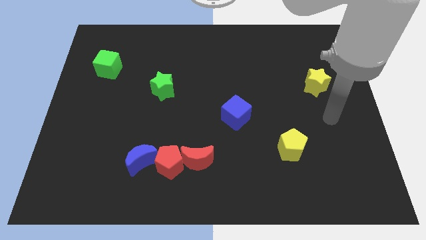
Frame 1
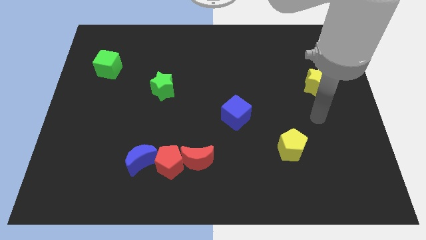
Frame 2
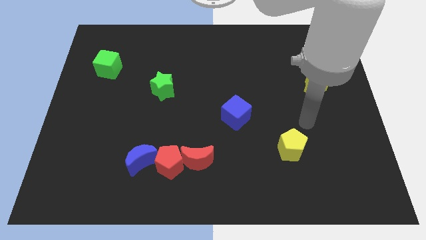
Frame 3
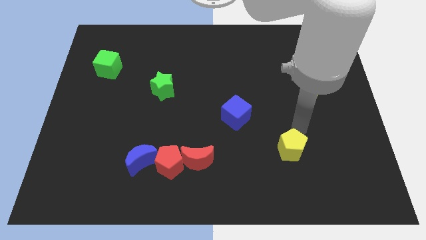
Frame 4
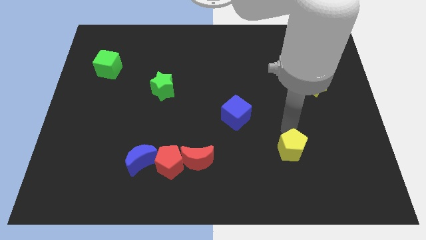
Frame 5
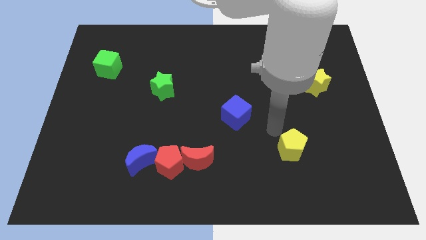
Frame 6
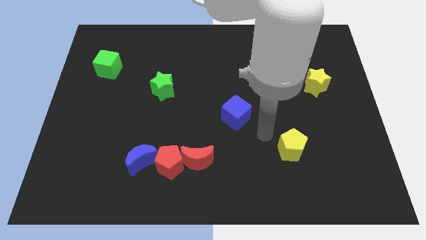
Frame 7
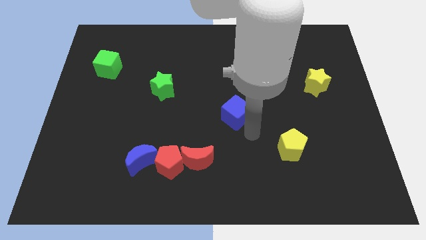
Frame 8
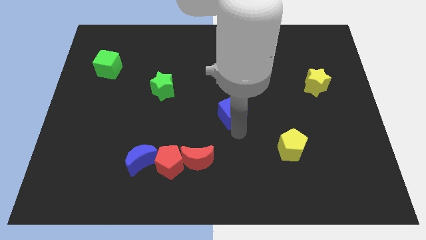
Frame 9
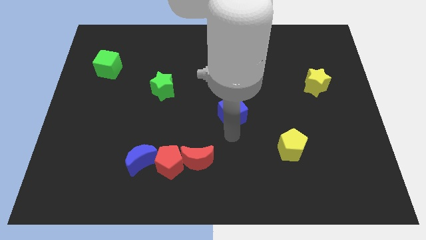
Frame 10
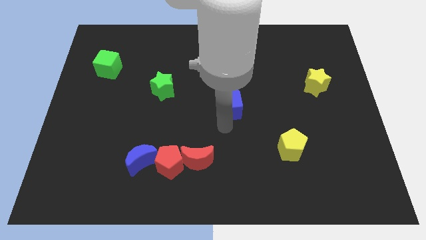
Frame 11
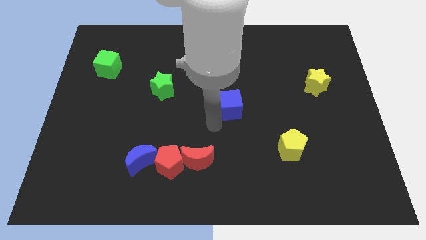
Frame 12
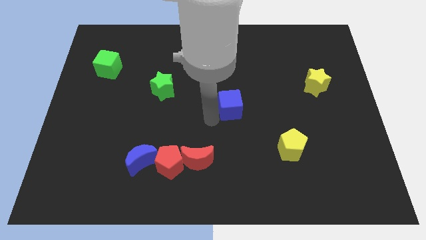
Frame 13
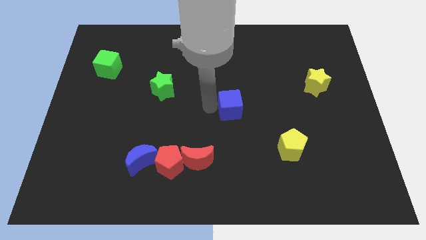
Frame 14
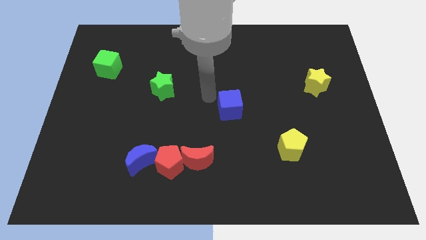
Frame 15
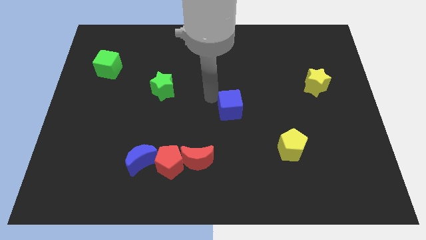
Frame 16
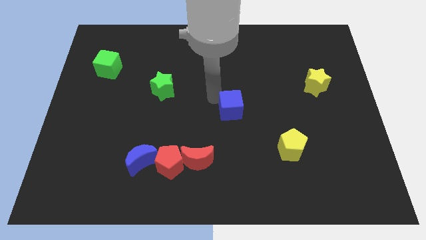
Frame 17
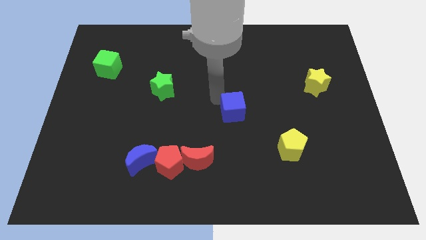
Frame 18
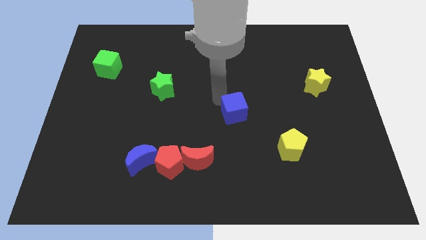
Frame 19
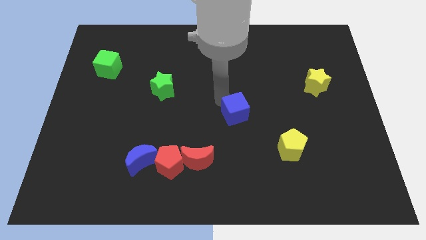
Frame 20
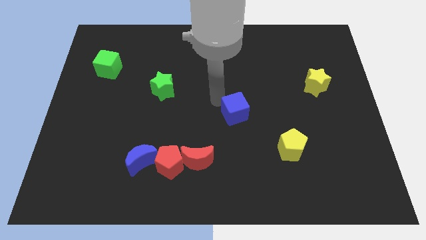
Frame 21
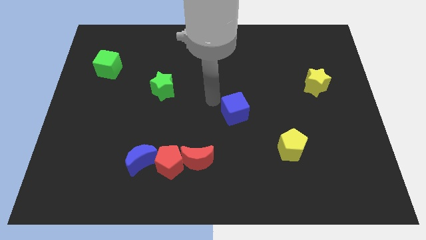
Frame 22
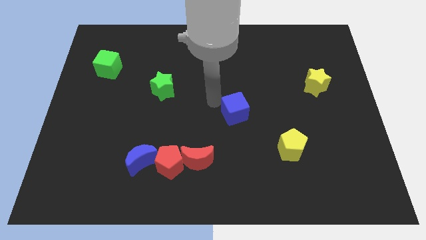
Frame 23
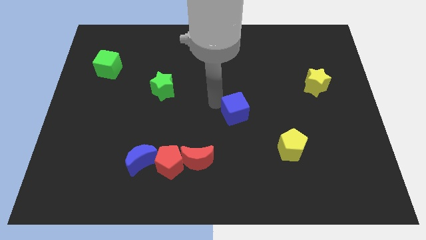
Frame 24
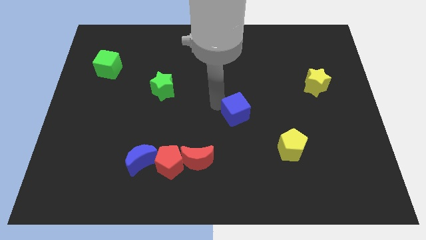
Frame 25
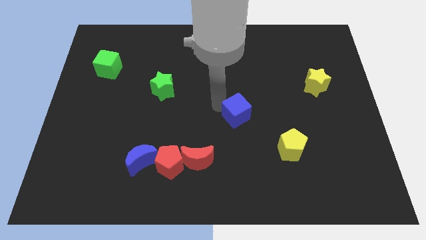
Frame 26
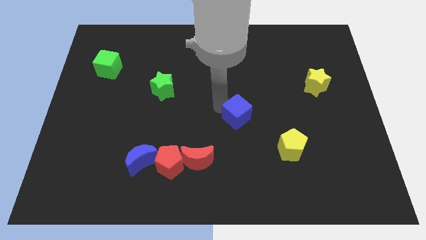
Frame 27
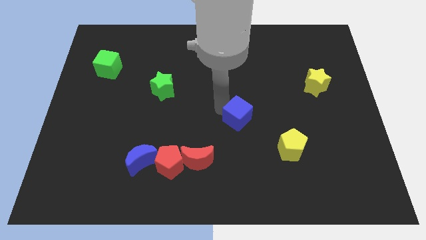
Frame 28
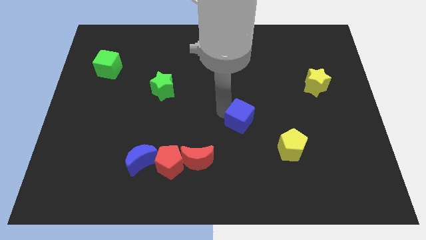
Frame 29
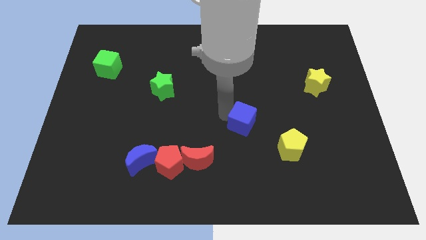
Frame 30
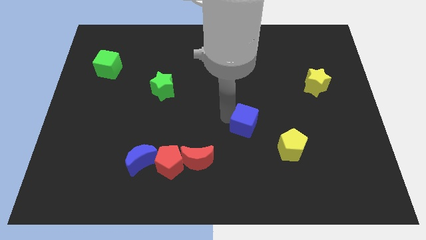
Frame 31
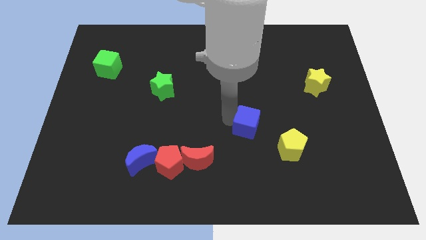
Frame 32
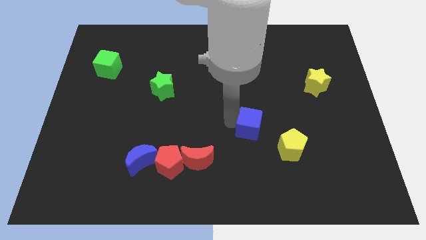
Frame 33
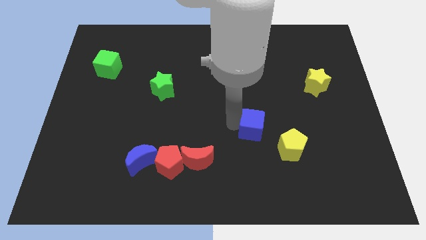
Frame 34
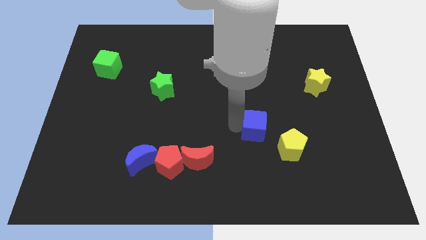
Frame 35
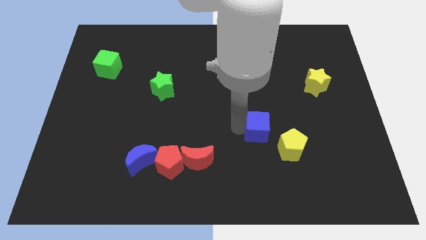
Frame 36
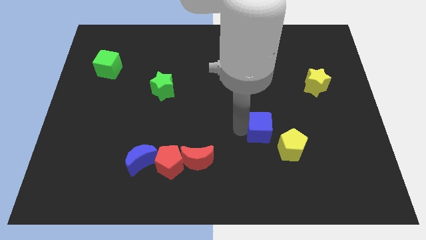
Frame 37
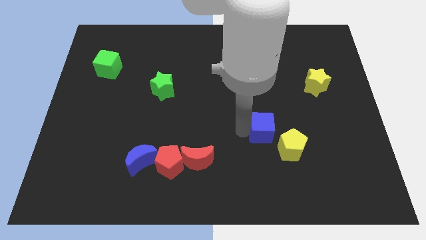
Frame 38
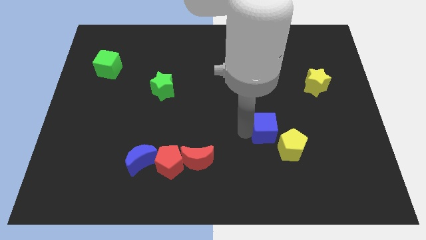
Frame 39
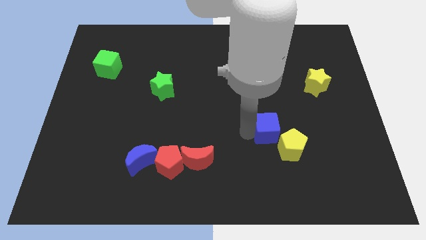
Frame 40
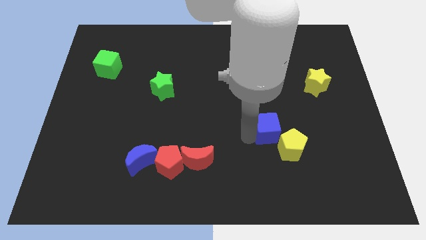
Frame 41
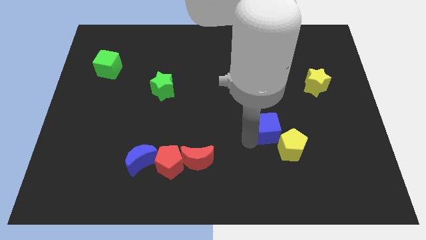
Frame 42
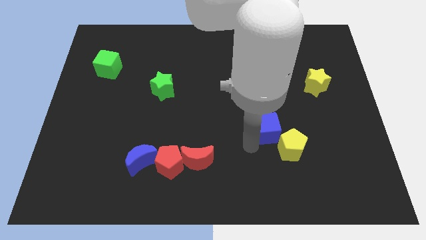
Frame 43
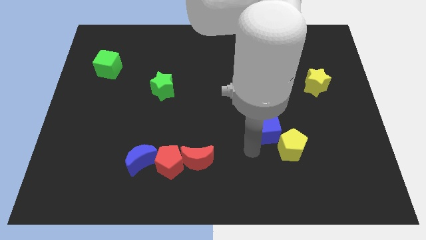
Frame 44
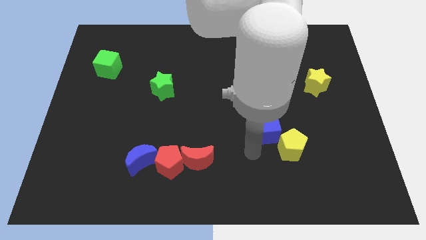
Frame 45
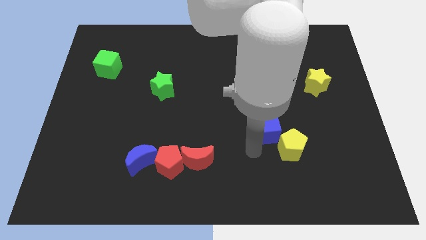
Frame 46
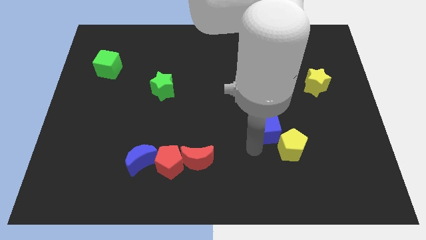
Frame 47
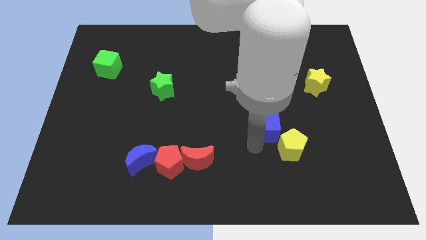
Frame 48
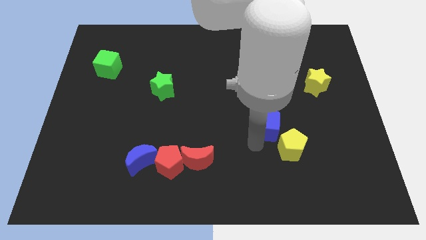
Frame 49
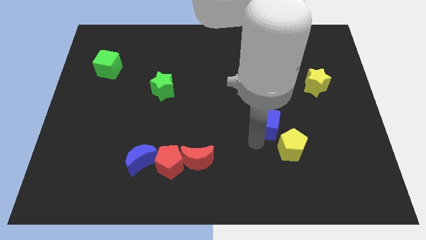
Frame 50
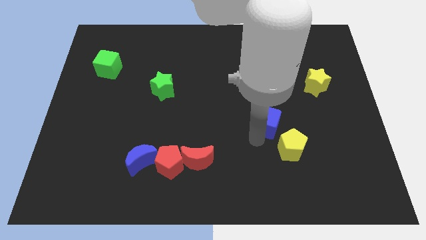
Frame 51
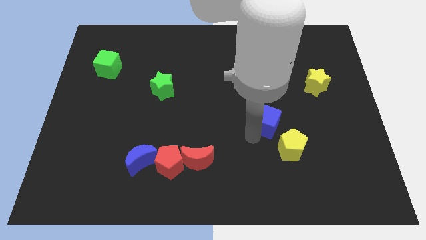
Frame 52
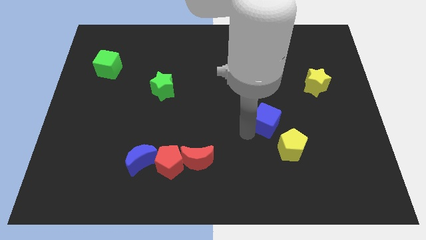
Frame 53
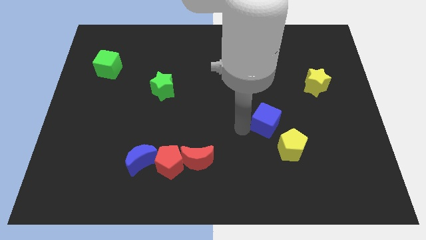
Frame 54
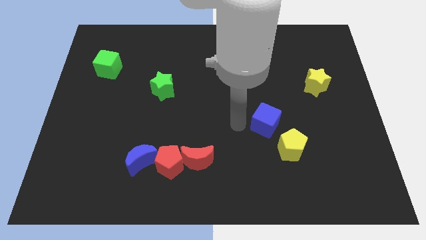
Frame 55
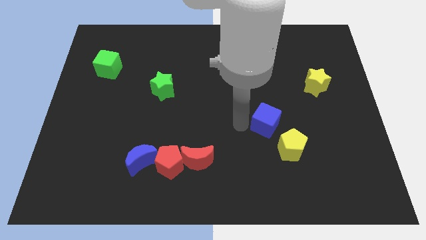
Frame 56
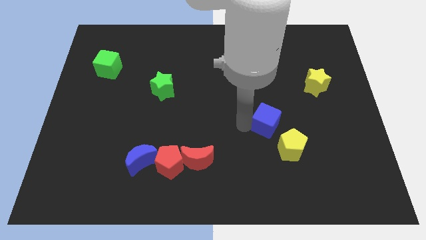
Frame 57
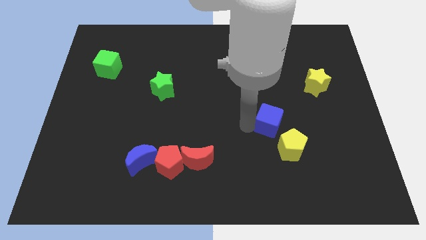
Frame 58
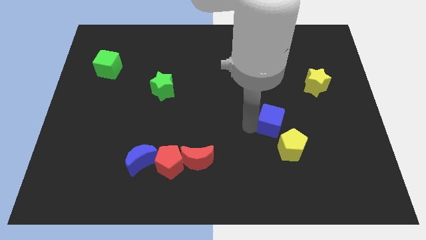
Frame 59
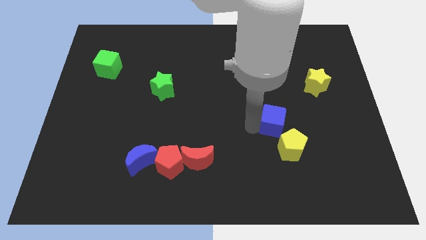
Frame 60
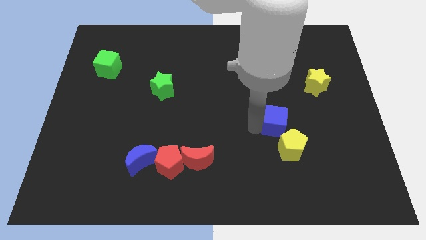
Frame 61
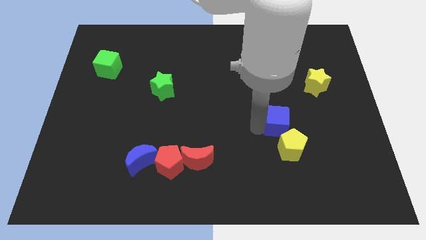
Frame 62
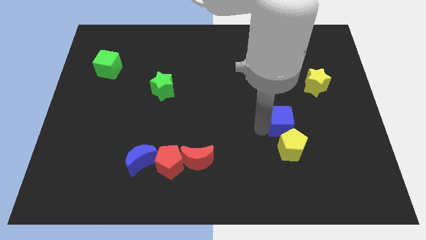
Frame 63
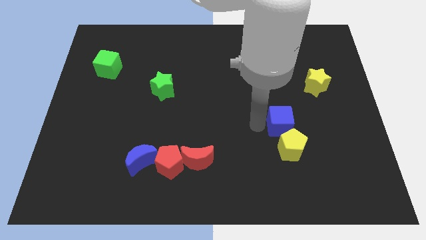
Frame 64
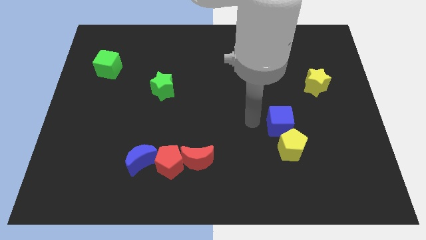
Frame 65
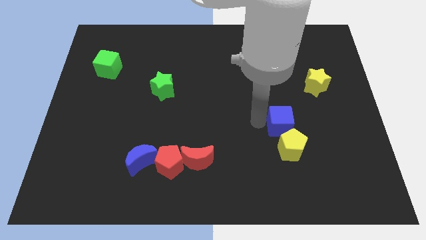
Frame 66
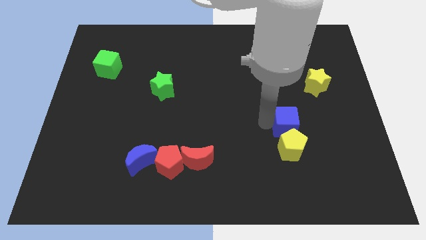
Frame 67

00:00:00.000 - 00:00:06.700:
move the blue cube to the top right side of the yellow pentagon
